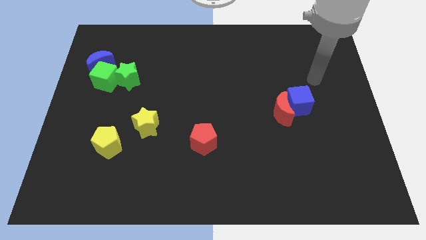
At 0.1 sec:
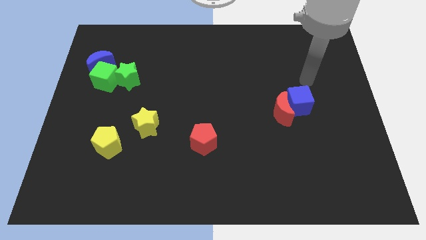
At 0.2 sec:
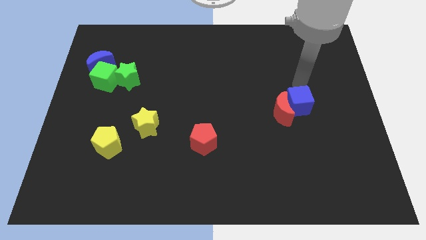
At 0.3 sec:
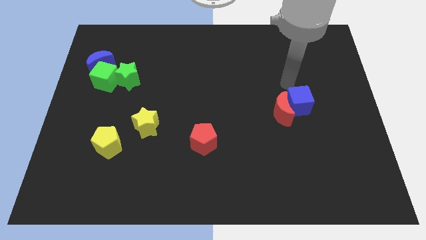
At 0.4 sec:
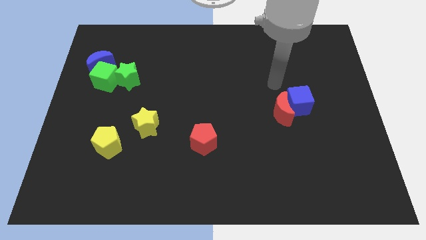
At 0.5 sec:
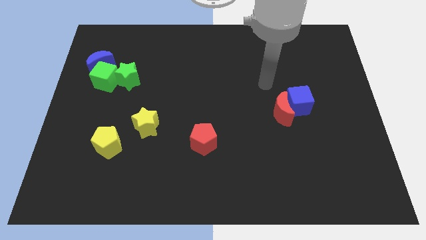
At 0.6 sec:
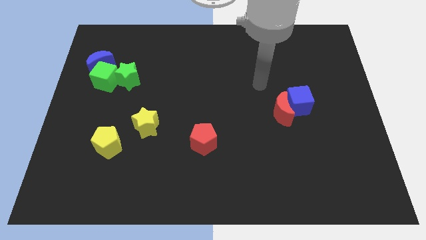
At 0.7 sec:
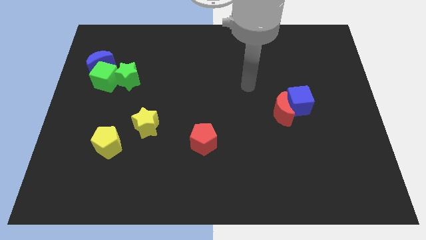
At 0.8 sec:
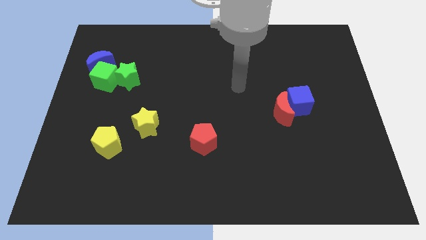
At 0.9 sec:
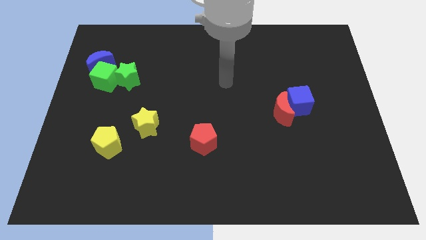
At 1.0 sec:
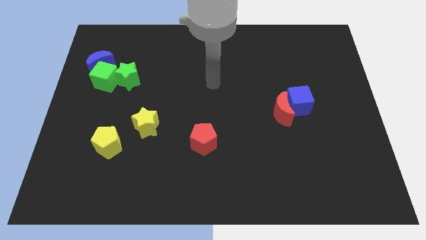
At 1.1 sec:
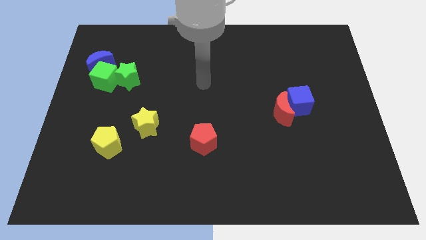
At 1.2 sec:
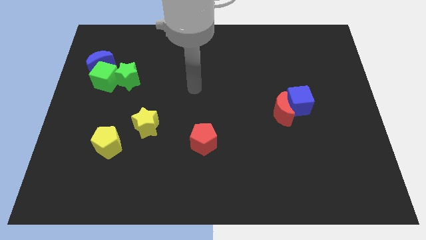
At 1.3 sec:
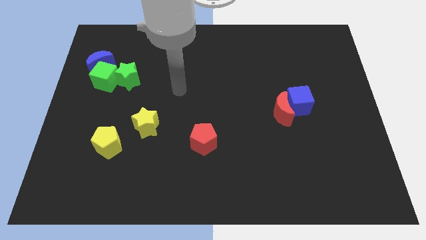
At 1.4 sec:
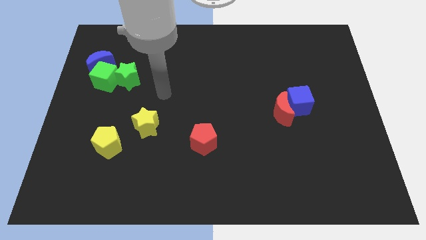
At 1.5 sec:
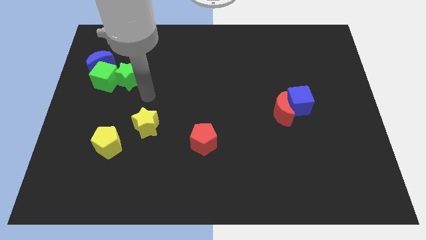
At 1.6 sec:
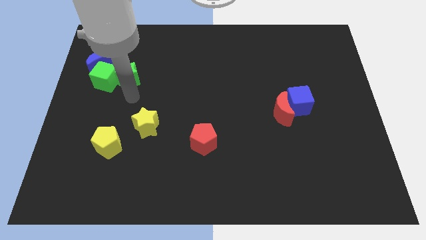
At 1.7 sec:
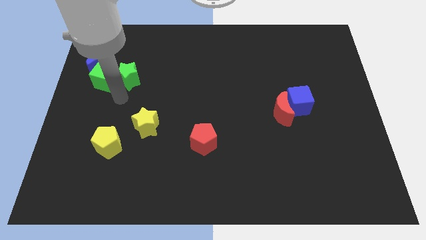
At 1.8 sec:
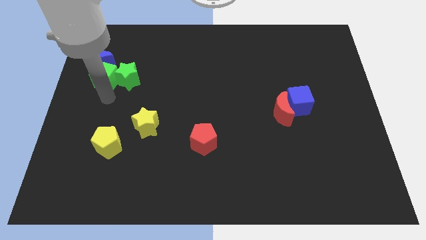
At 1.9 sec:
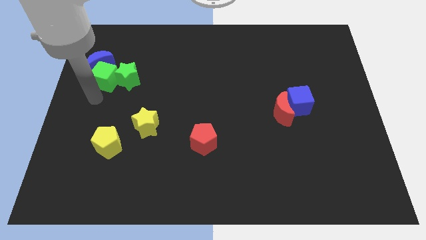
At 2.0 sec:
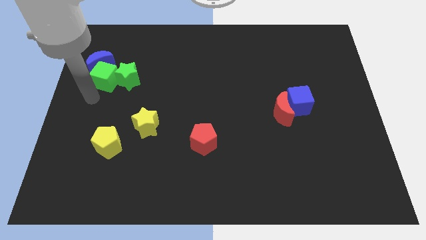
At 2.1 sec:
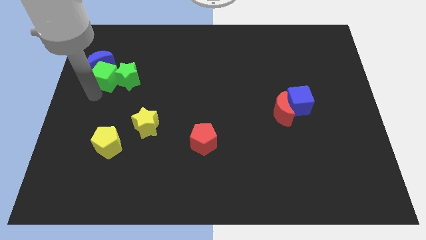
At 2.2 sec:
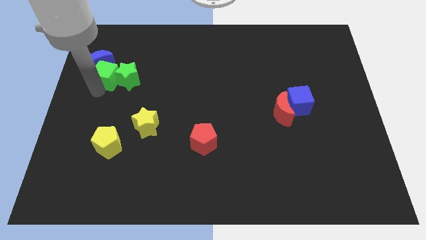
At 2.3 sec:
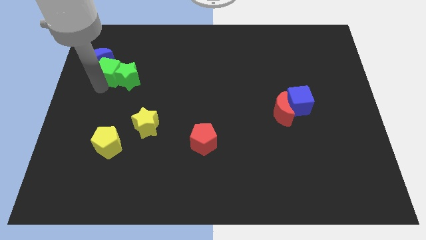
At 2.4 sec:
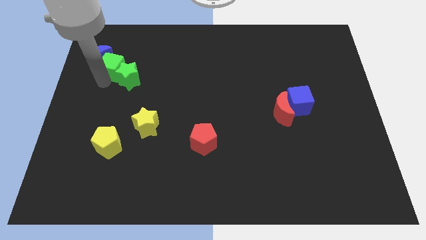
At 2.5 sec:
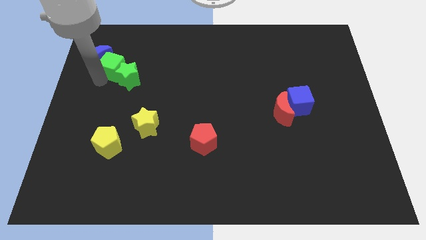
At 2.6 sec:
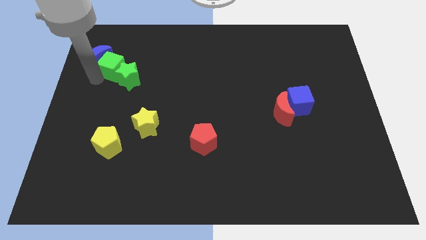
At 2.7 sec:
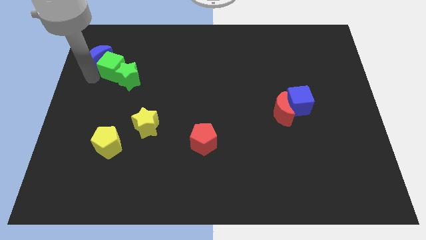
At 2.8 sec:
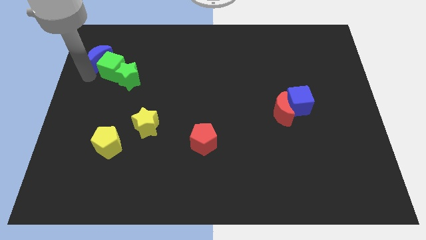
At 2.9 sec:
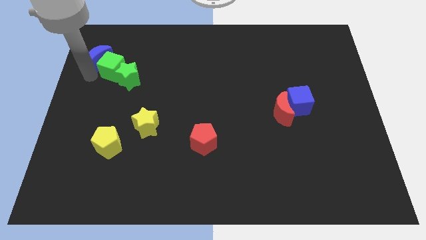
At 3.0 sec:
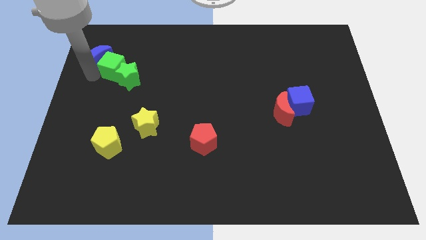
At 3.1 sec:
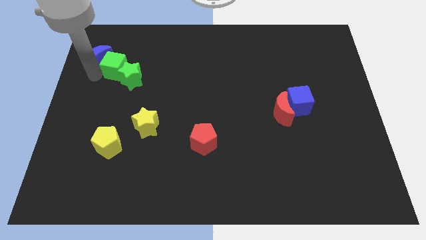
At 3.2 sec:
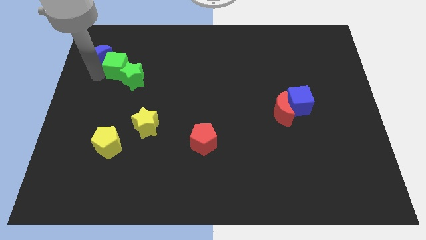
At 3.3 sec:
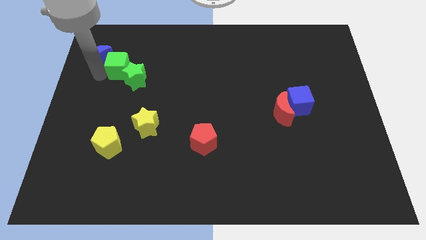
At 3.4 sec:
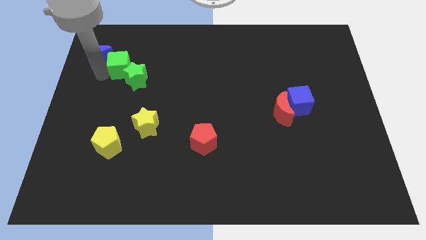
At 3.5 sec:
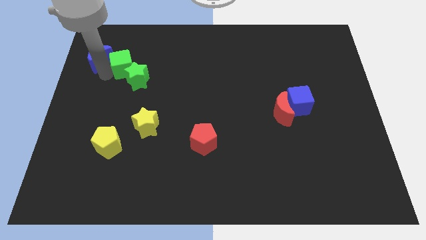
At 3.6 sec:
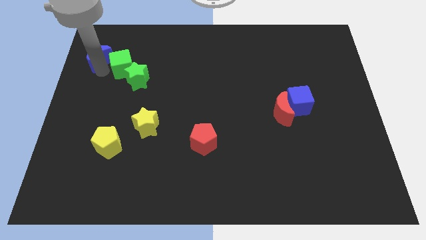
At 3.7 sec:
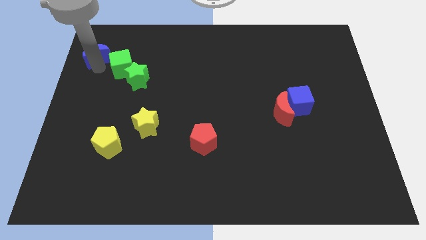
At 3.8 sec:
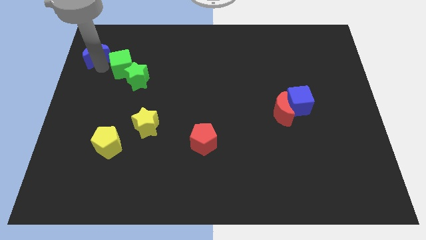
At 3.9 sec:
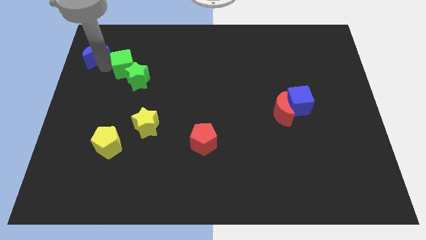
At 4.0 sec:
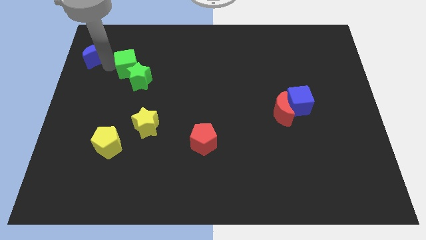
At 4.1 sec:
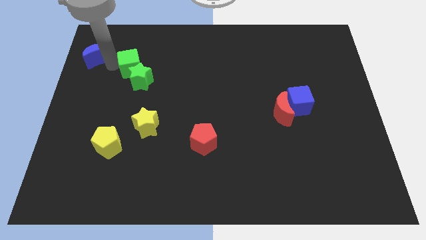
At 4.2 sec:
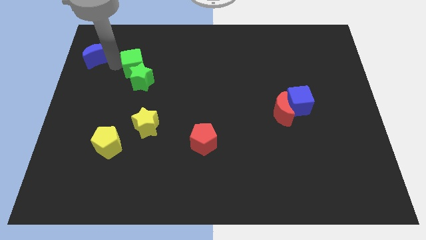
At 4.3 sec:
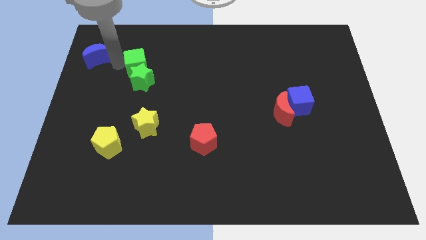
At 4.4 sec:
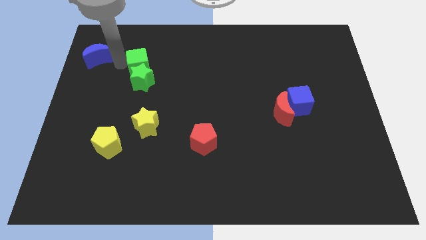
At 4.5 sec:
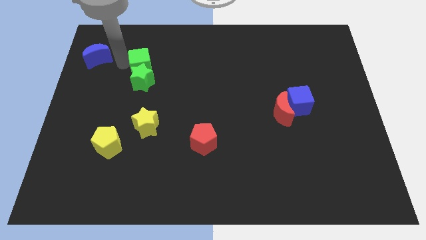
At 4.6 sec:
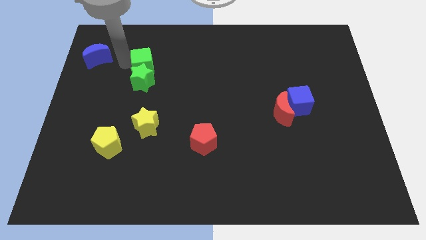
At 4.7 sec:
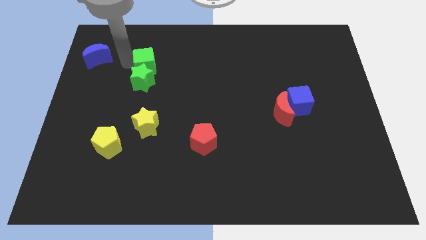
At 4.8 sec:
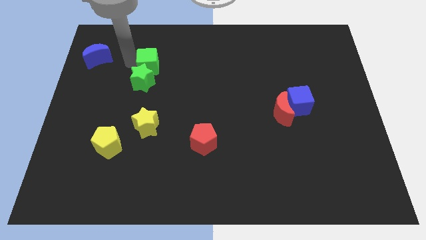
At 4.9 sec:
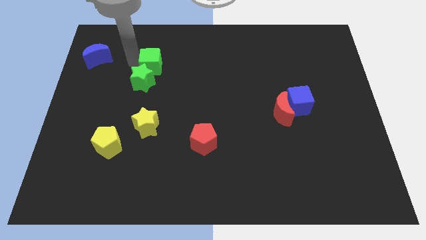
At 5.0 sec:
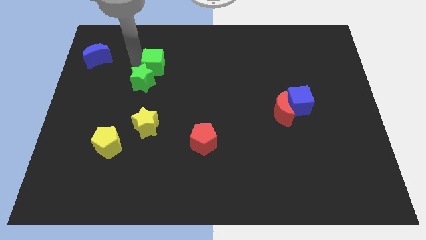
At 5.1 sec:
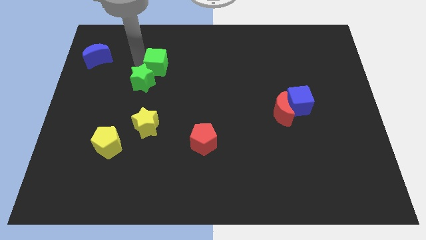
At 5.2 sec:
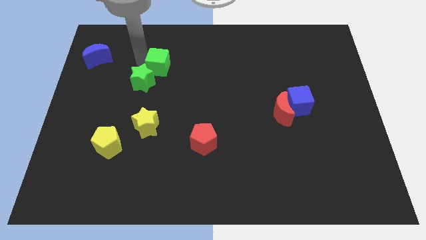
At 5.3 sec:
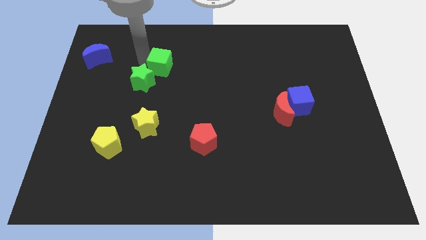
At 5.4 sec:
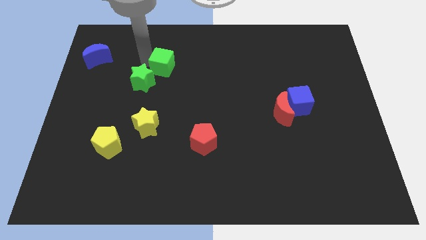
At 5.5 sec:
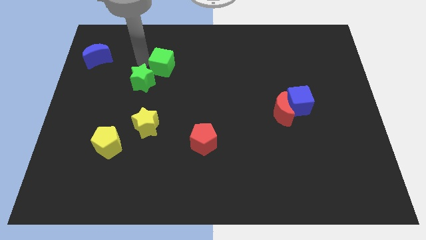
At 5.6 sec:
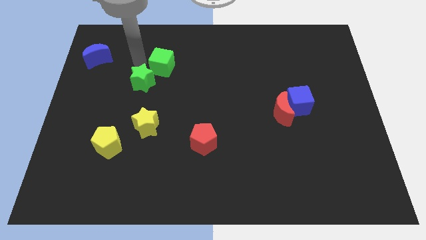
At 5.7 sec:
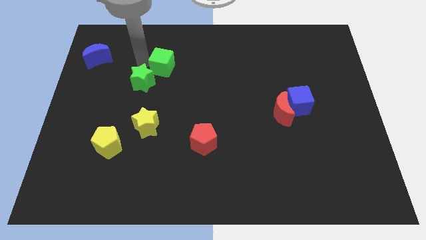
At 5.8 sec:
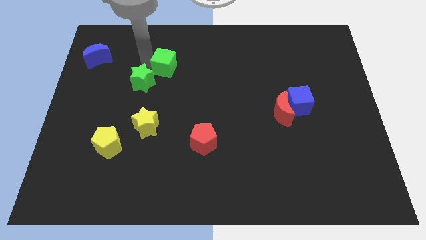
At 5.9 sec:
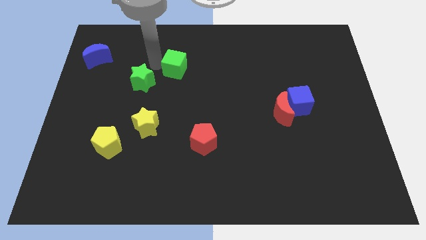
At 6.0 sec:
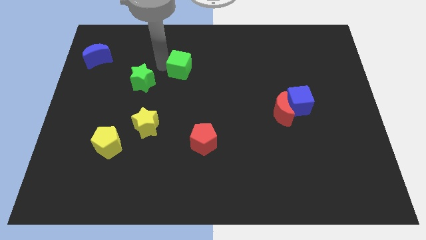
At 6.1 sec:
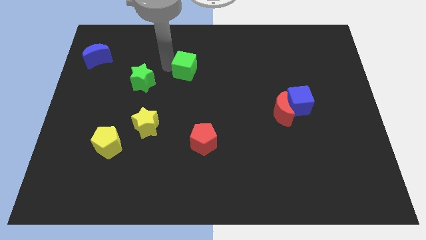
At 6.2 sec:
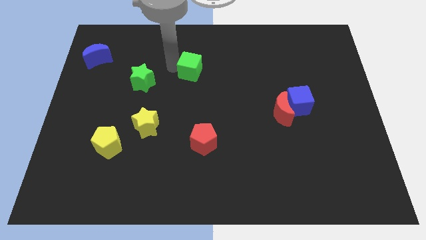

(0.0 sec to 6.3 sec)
push the green cube to the right

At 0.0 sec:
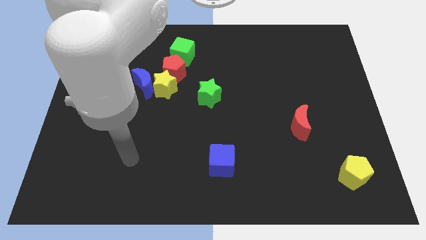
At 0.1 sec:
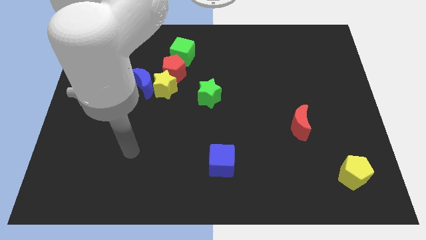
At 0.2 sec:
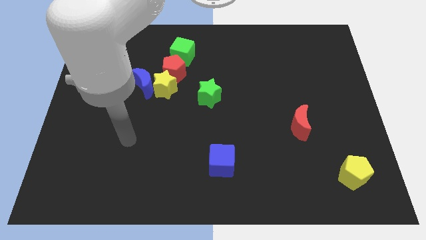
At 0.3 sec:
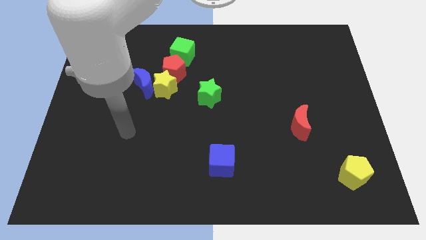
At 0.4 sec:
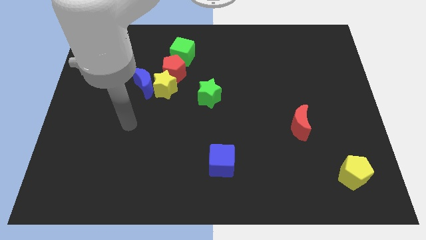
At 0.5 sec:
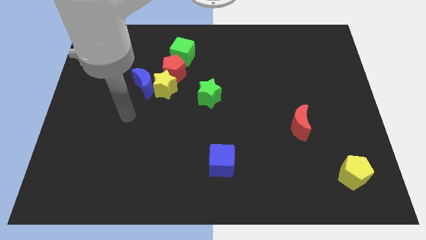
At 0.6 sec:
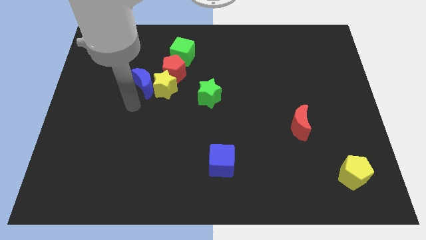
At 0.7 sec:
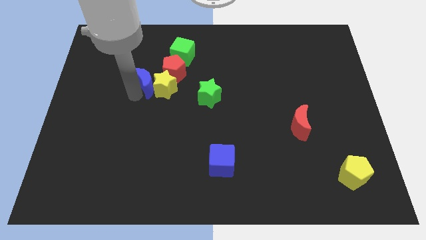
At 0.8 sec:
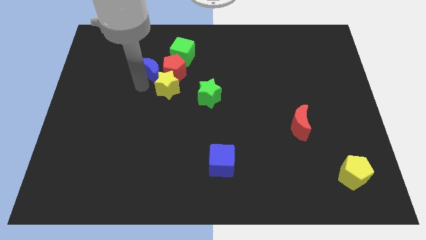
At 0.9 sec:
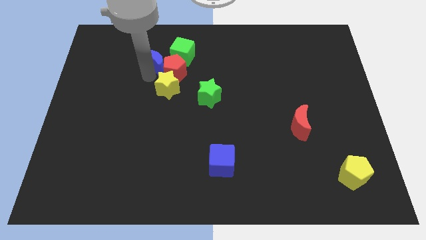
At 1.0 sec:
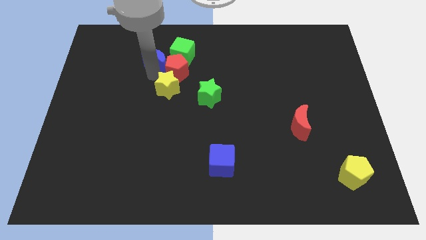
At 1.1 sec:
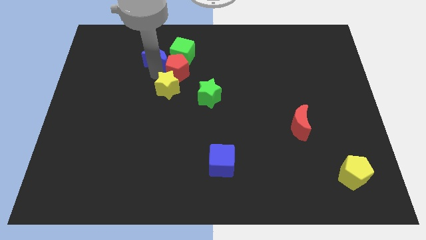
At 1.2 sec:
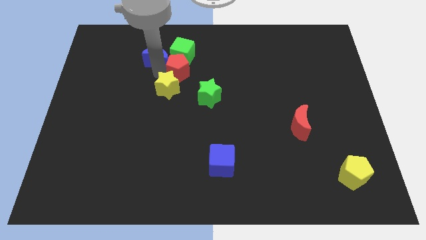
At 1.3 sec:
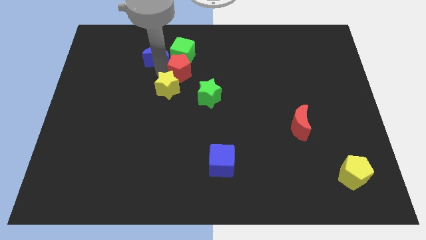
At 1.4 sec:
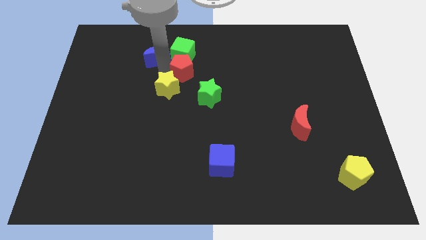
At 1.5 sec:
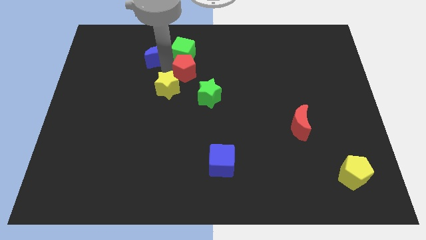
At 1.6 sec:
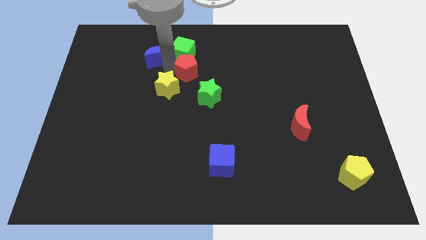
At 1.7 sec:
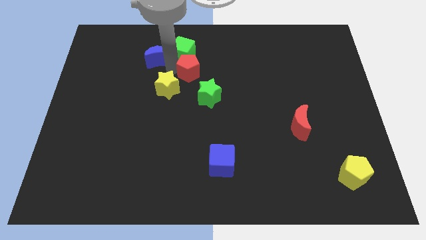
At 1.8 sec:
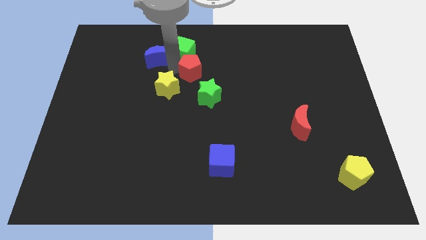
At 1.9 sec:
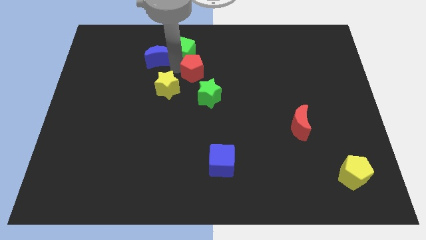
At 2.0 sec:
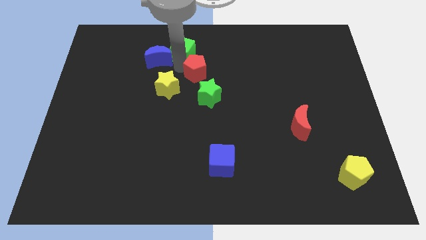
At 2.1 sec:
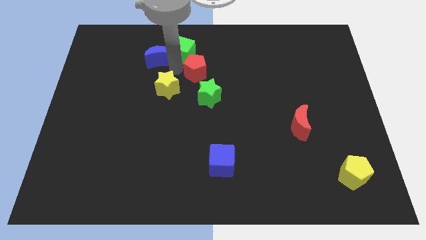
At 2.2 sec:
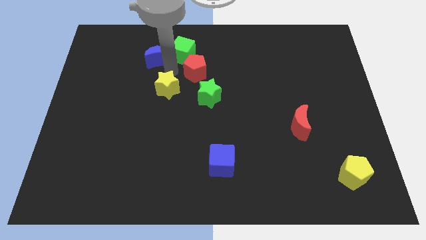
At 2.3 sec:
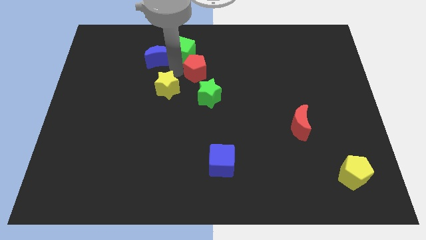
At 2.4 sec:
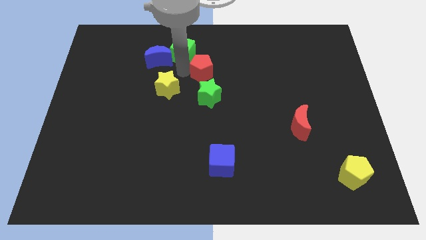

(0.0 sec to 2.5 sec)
slide the red pentagon a little to the right
